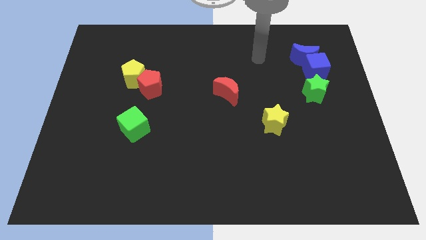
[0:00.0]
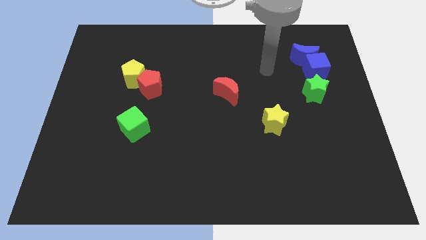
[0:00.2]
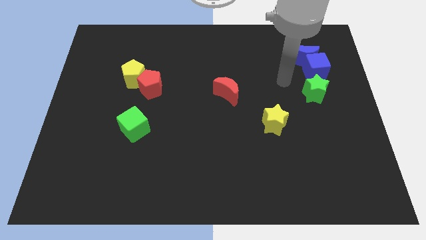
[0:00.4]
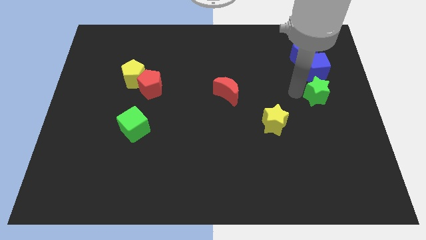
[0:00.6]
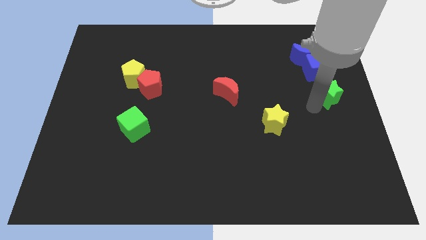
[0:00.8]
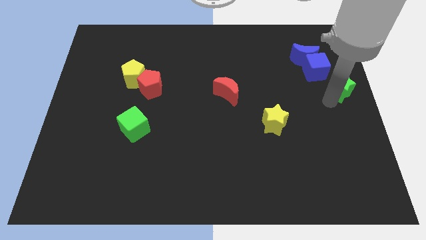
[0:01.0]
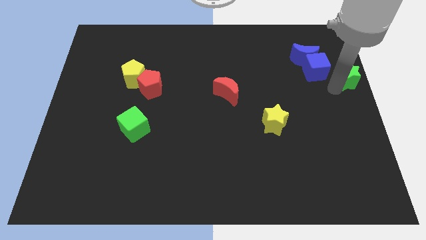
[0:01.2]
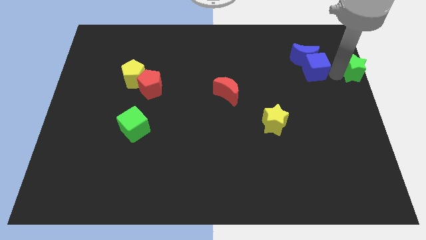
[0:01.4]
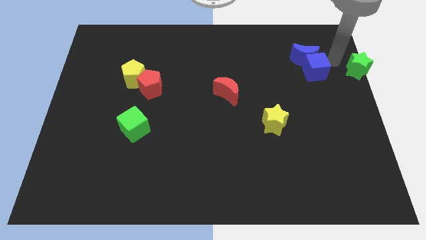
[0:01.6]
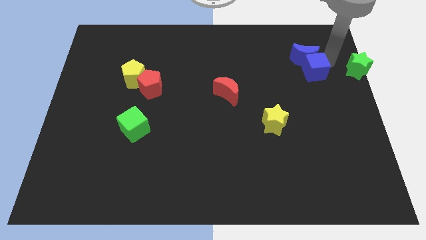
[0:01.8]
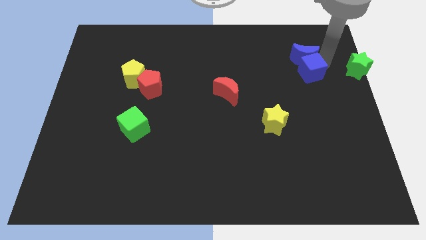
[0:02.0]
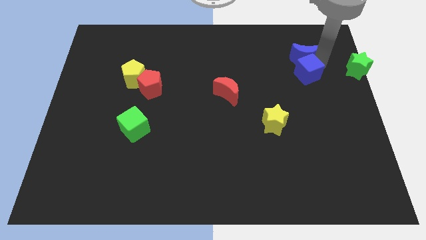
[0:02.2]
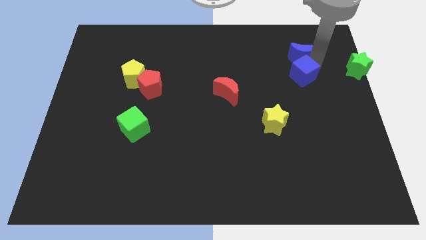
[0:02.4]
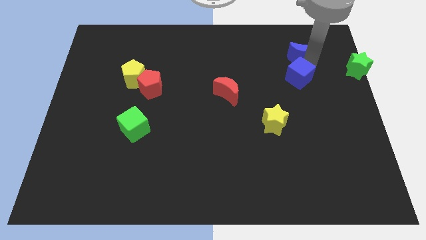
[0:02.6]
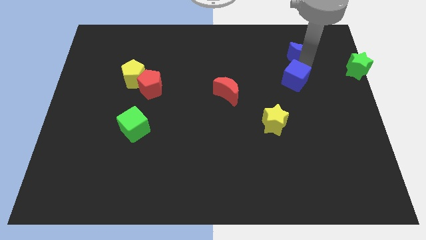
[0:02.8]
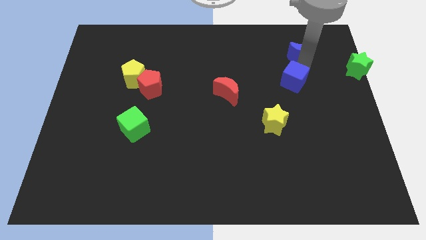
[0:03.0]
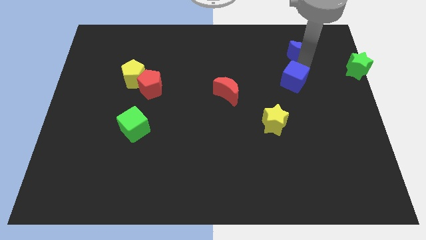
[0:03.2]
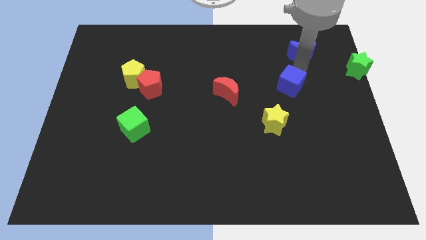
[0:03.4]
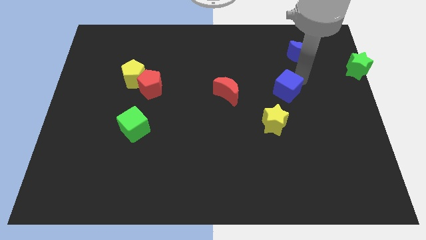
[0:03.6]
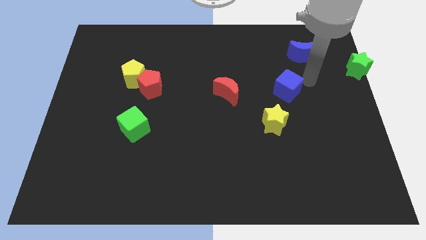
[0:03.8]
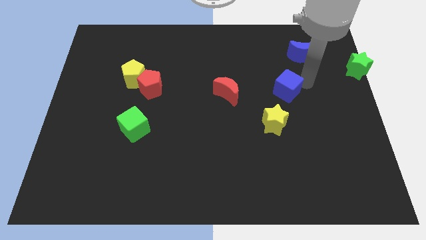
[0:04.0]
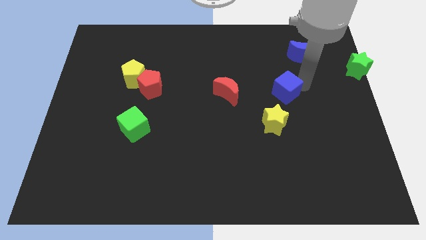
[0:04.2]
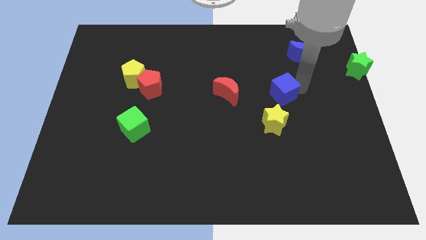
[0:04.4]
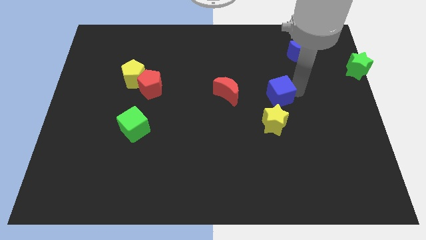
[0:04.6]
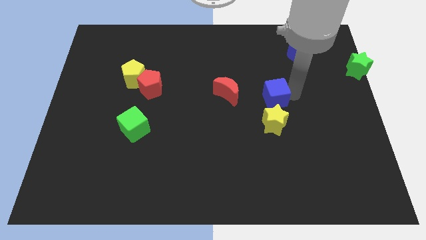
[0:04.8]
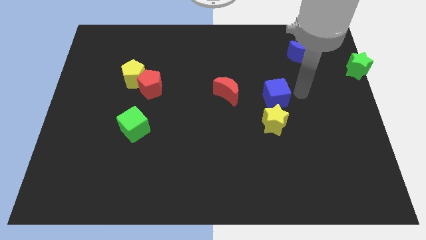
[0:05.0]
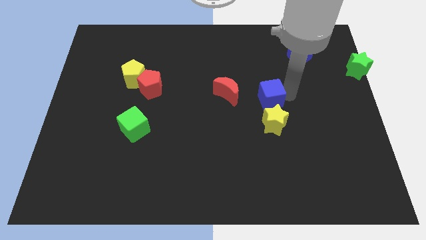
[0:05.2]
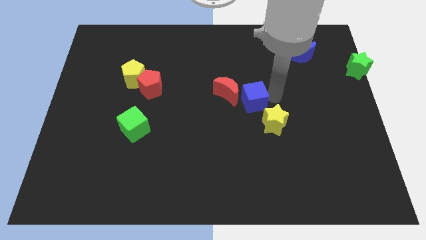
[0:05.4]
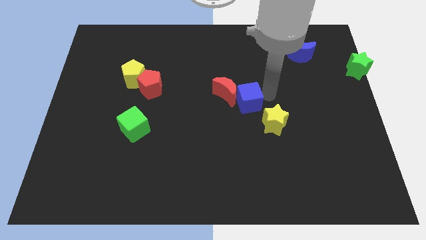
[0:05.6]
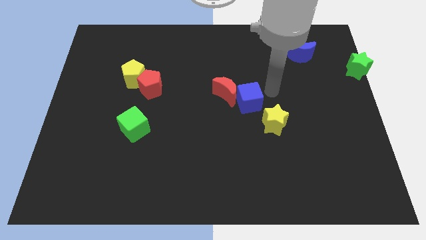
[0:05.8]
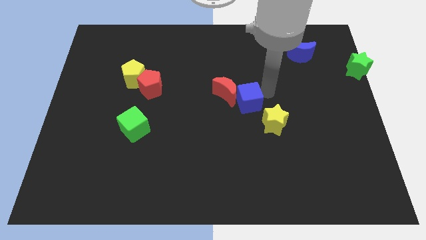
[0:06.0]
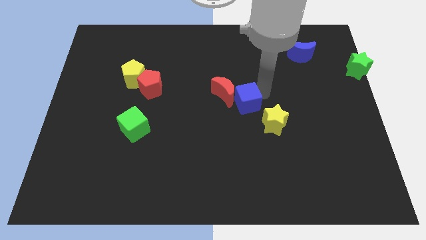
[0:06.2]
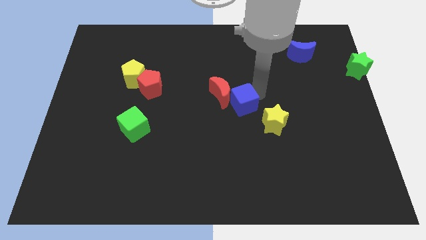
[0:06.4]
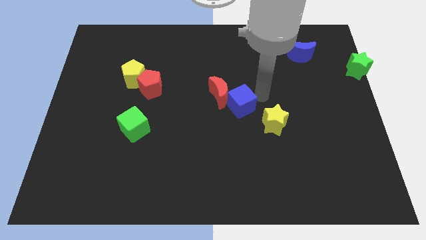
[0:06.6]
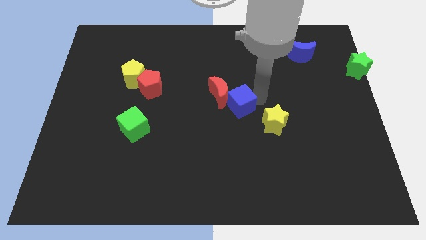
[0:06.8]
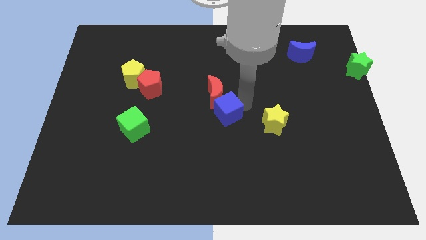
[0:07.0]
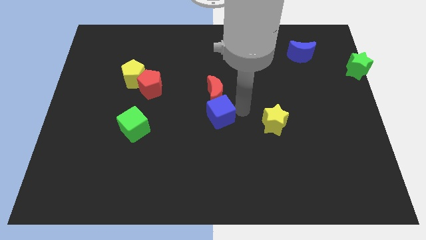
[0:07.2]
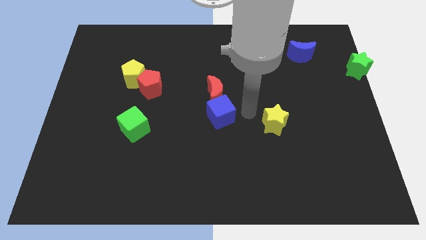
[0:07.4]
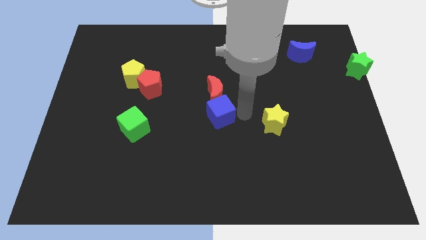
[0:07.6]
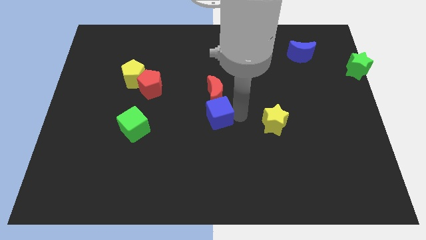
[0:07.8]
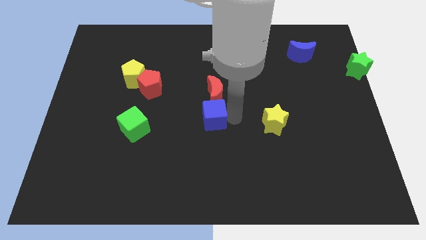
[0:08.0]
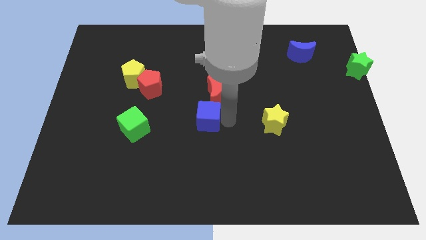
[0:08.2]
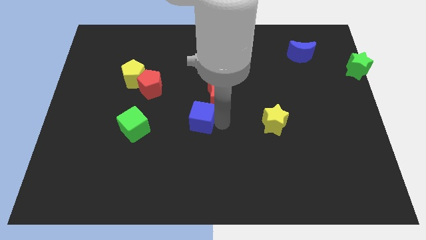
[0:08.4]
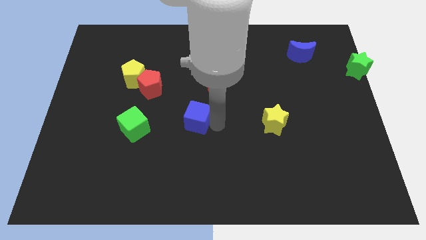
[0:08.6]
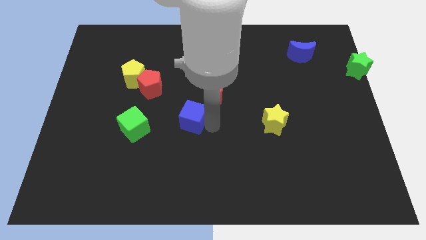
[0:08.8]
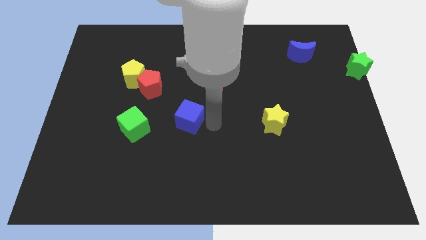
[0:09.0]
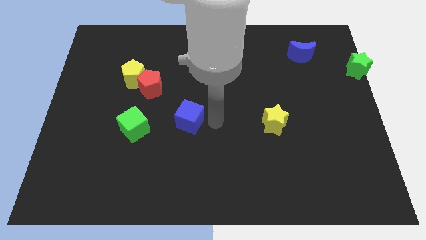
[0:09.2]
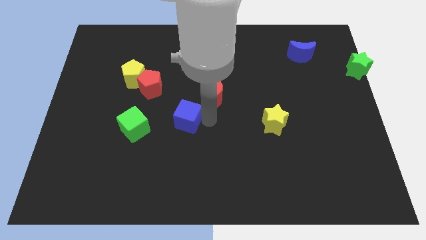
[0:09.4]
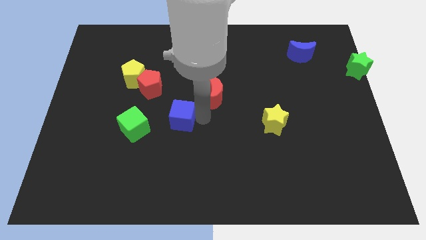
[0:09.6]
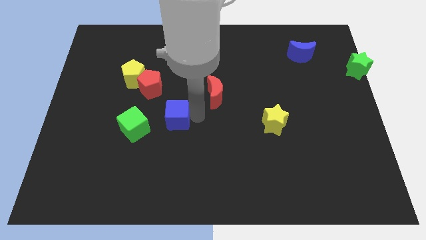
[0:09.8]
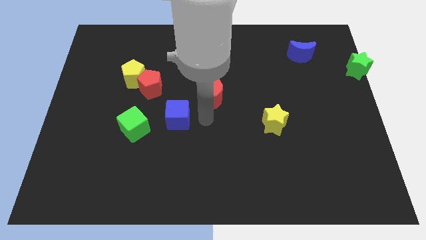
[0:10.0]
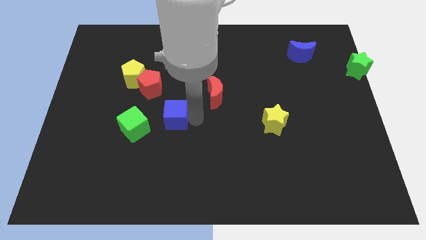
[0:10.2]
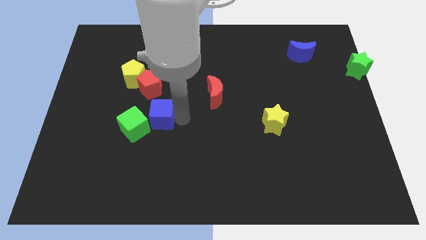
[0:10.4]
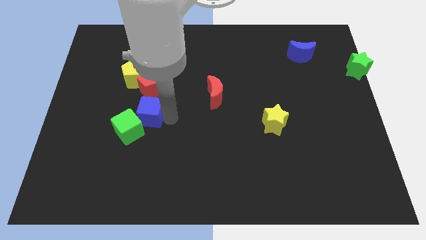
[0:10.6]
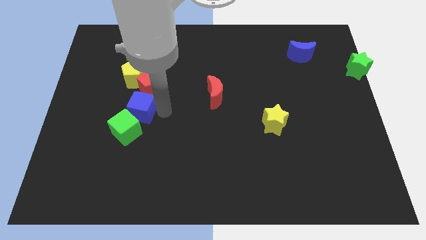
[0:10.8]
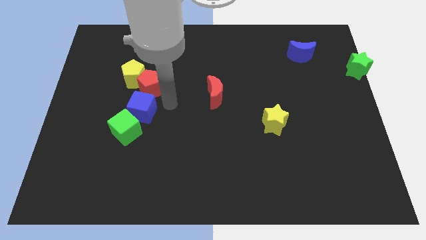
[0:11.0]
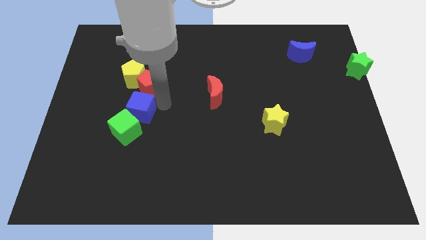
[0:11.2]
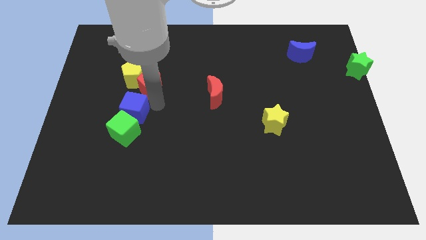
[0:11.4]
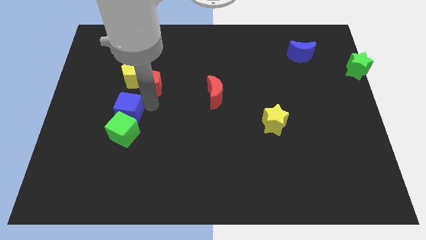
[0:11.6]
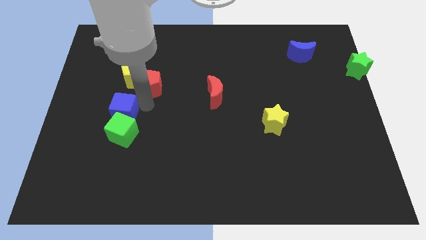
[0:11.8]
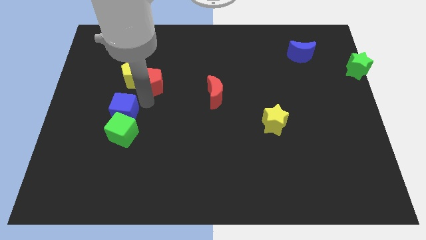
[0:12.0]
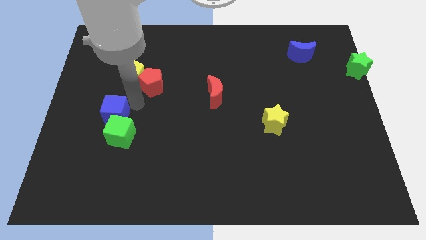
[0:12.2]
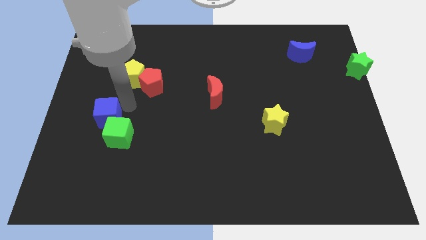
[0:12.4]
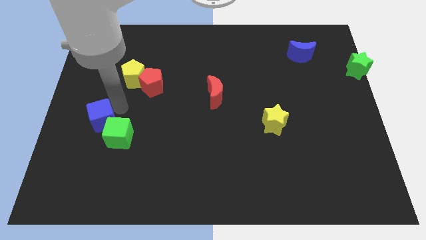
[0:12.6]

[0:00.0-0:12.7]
slide the blue cube just left of the green cube

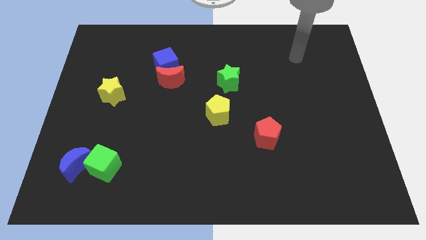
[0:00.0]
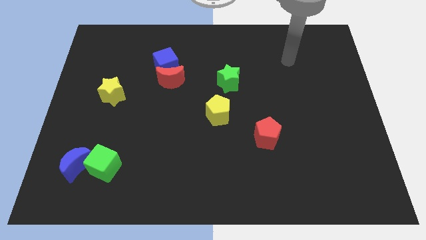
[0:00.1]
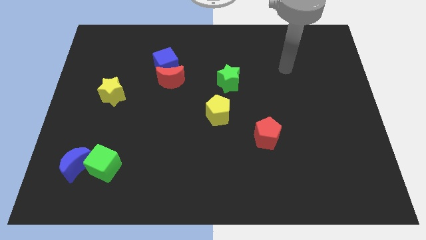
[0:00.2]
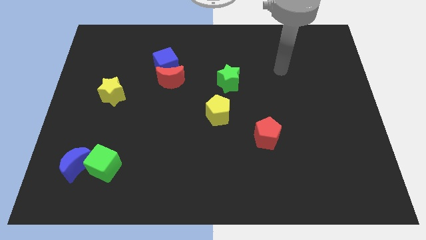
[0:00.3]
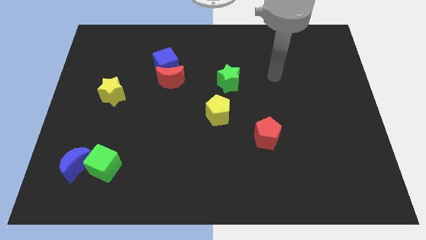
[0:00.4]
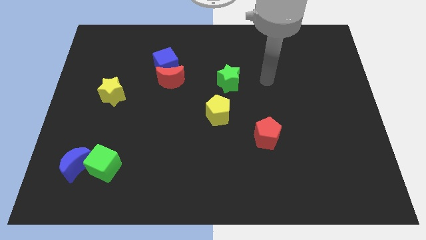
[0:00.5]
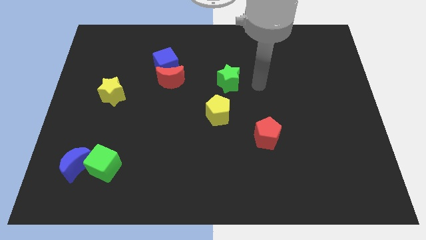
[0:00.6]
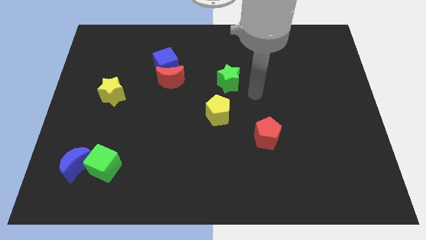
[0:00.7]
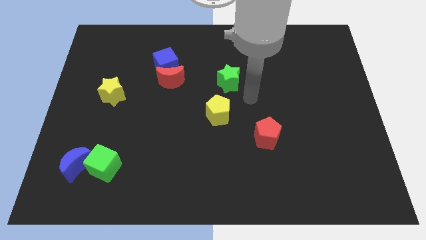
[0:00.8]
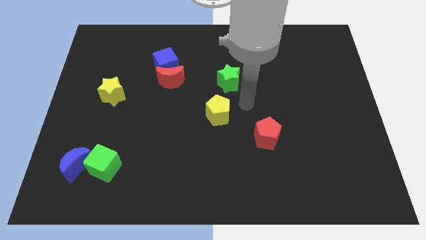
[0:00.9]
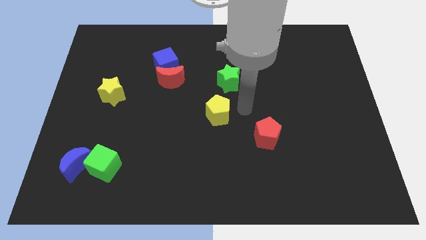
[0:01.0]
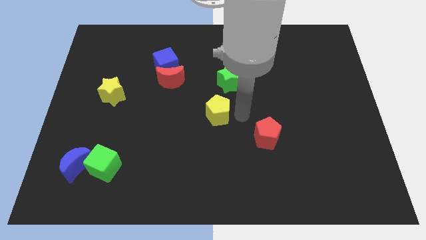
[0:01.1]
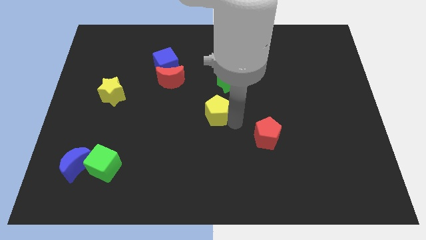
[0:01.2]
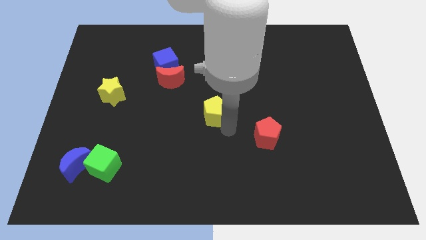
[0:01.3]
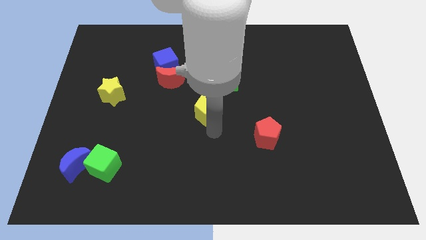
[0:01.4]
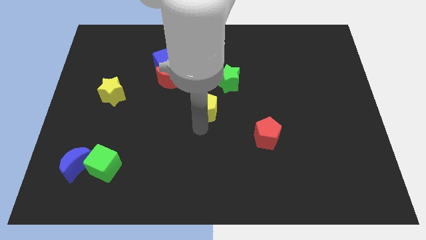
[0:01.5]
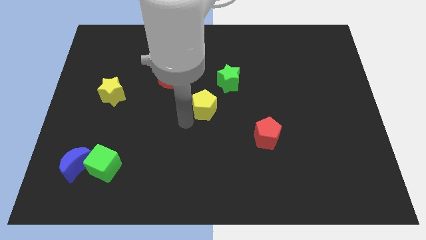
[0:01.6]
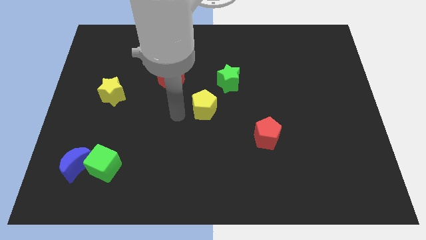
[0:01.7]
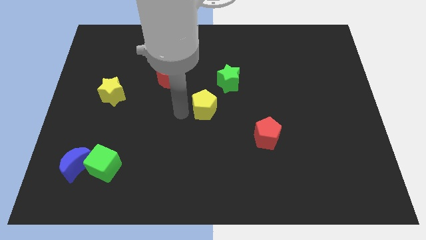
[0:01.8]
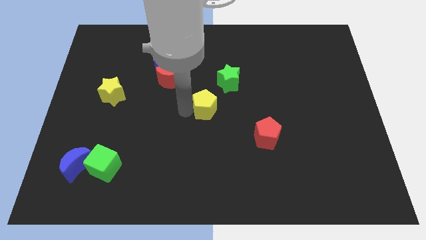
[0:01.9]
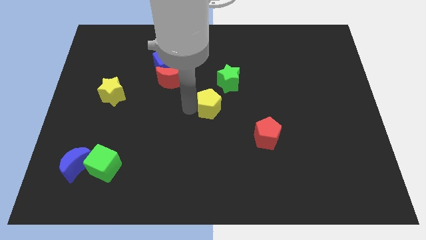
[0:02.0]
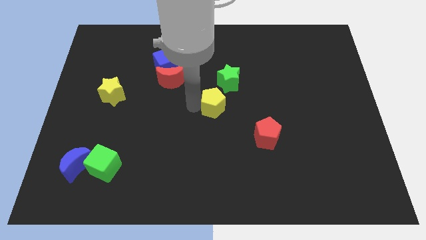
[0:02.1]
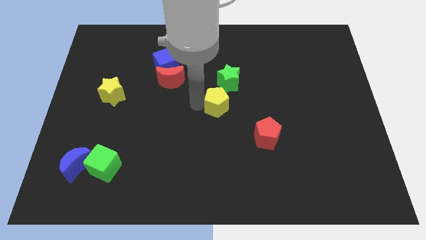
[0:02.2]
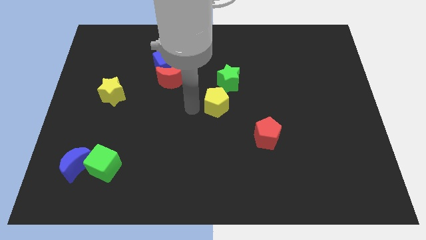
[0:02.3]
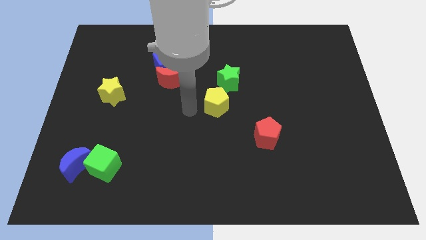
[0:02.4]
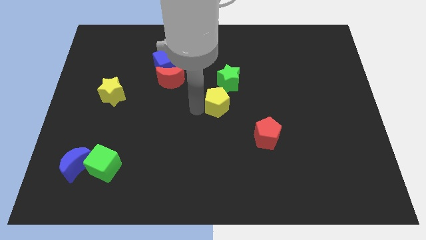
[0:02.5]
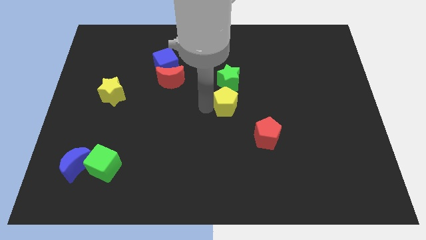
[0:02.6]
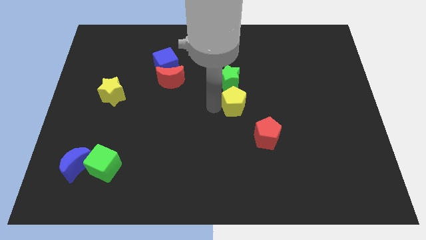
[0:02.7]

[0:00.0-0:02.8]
move the yellow pentagon to the bottom right side of the green star
